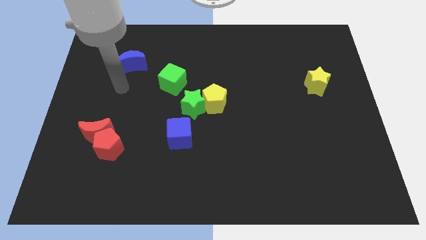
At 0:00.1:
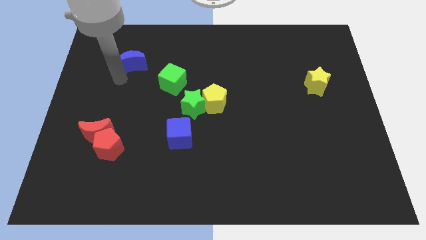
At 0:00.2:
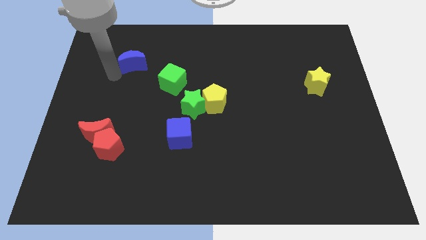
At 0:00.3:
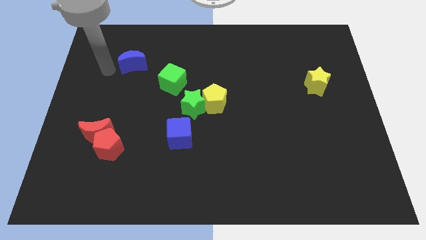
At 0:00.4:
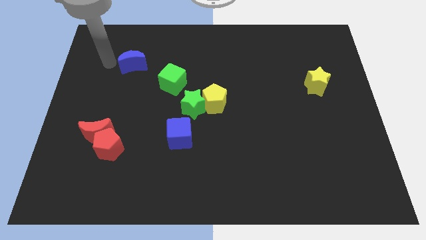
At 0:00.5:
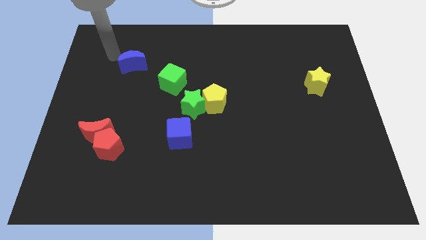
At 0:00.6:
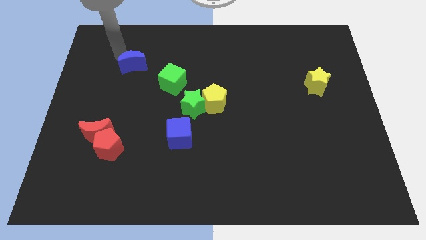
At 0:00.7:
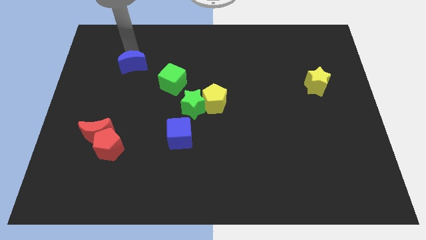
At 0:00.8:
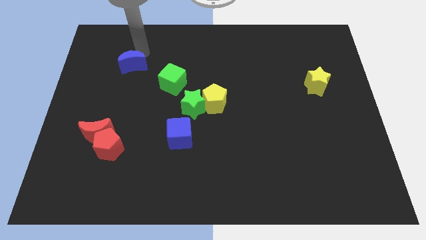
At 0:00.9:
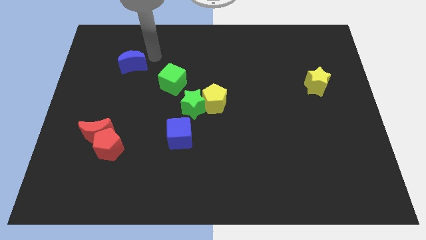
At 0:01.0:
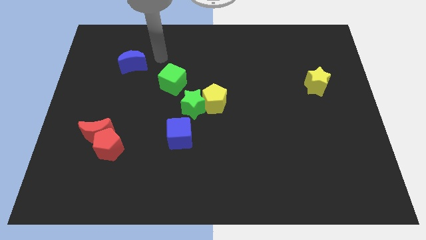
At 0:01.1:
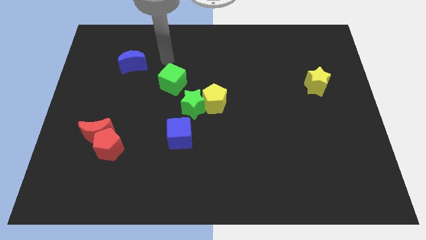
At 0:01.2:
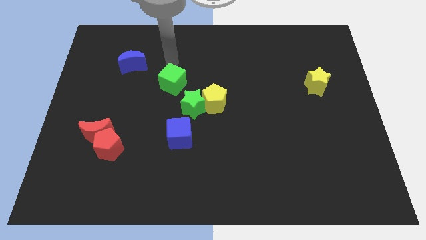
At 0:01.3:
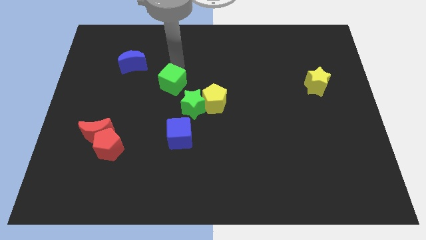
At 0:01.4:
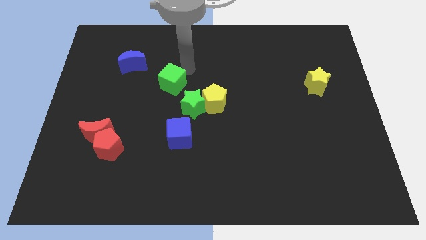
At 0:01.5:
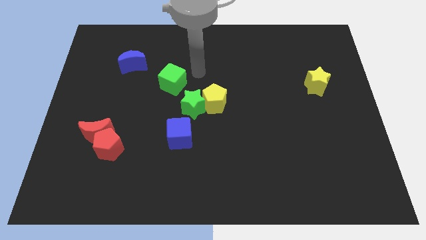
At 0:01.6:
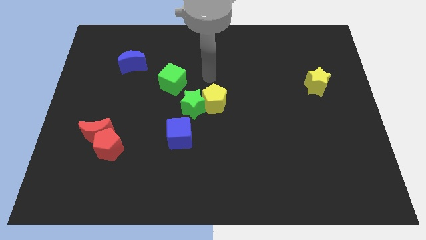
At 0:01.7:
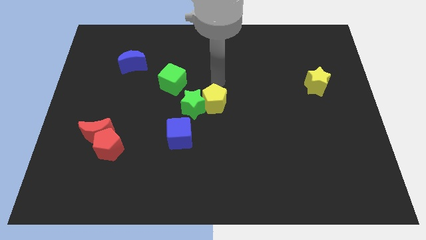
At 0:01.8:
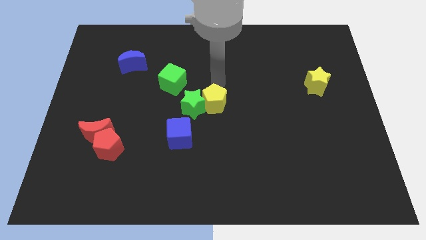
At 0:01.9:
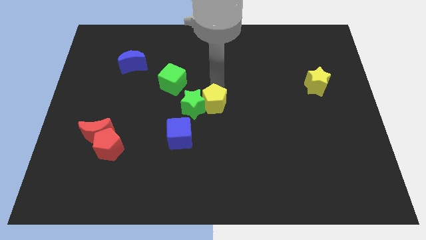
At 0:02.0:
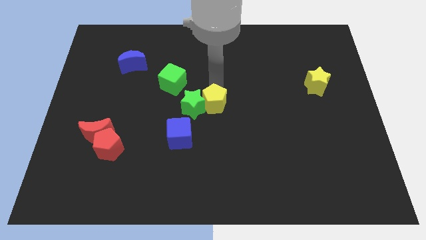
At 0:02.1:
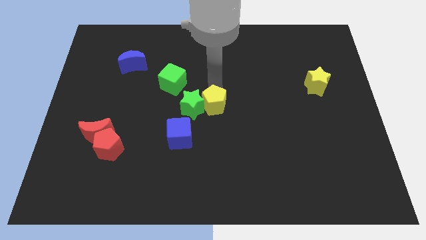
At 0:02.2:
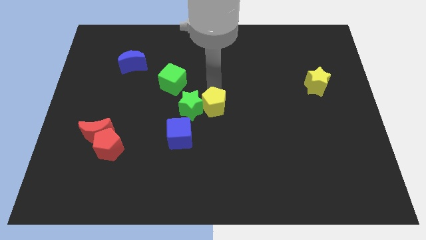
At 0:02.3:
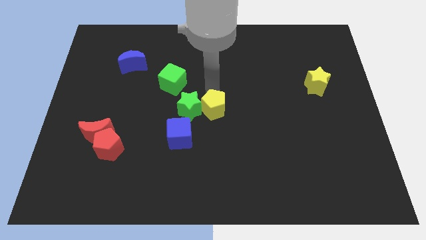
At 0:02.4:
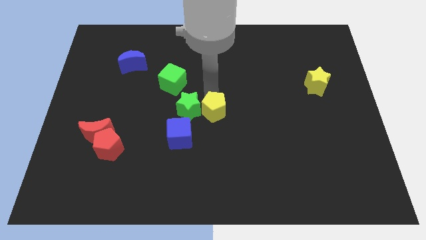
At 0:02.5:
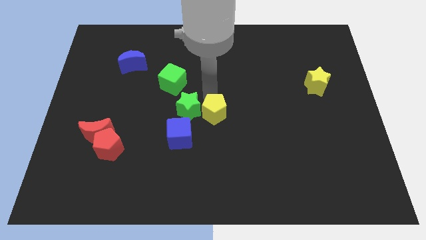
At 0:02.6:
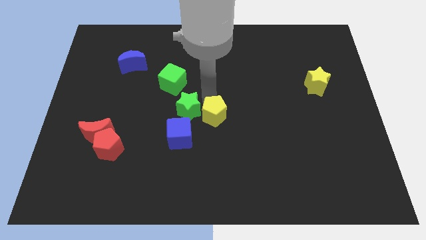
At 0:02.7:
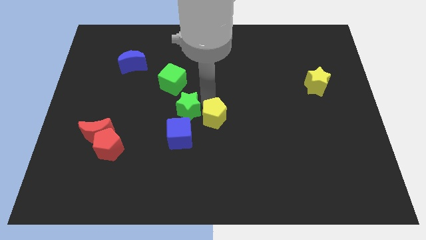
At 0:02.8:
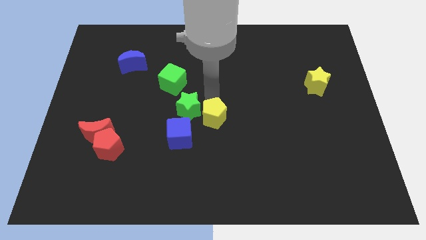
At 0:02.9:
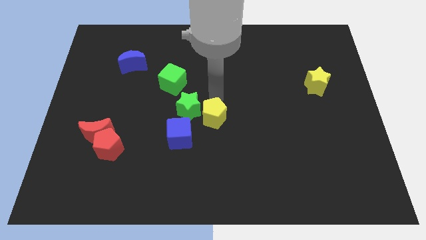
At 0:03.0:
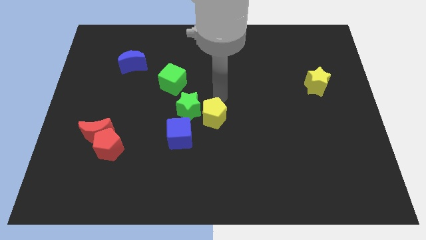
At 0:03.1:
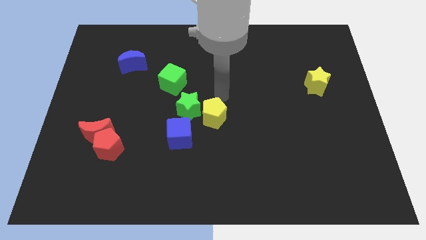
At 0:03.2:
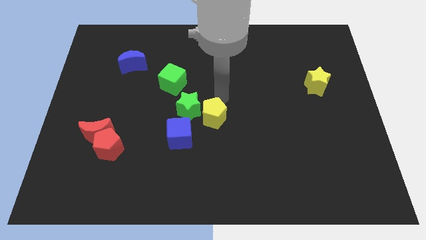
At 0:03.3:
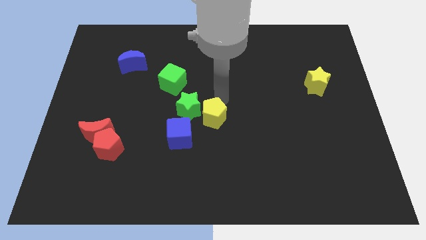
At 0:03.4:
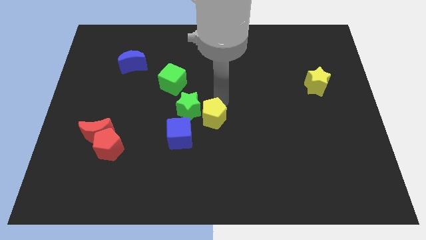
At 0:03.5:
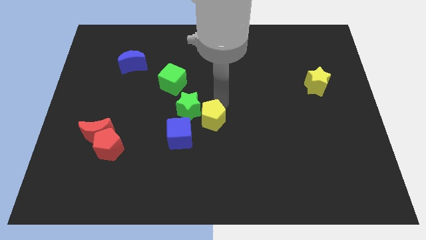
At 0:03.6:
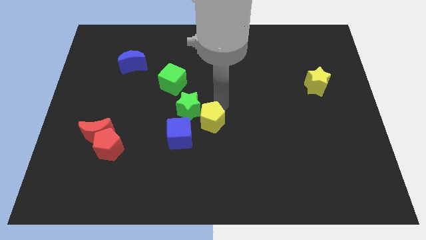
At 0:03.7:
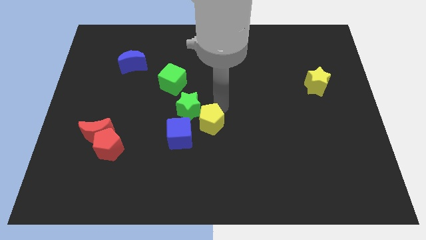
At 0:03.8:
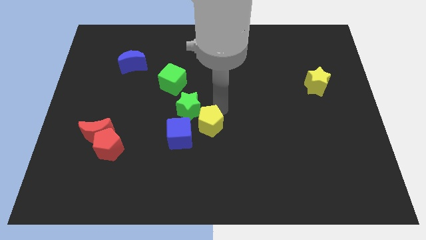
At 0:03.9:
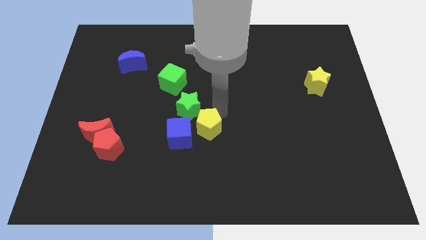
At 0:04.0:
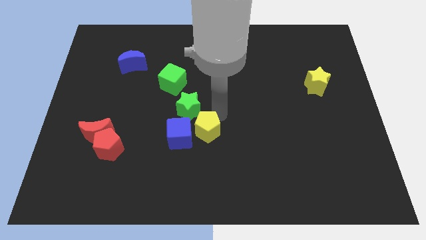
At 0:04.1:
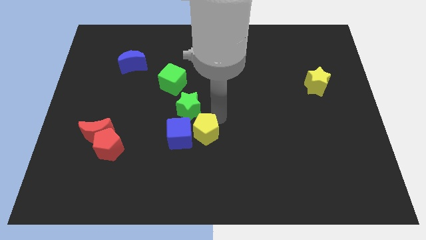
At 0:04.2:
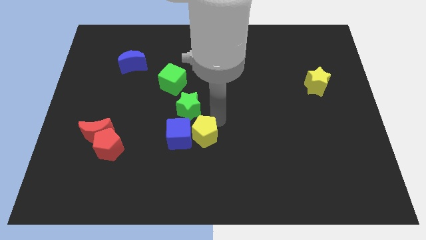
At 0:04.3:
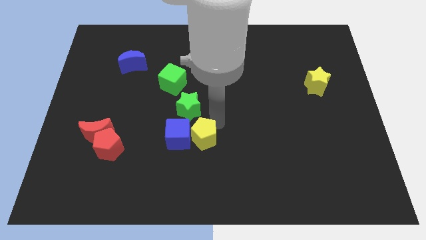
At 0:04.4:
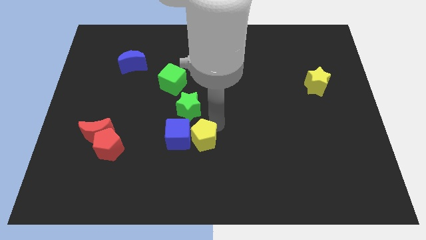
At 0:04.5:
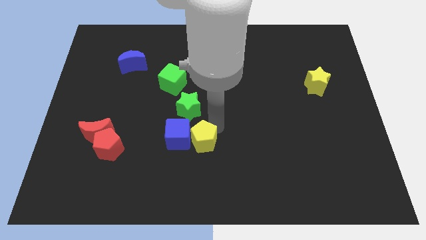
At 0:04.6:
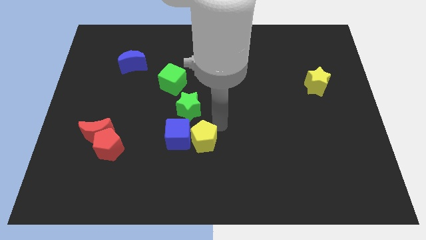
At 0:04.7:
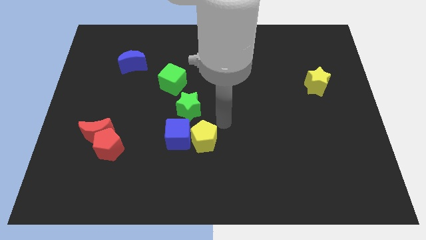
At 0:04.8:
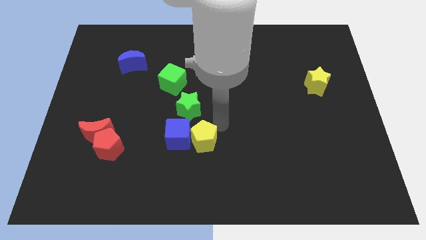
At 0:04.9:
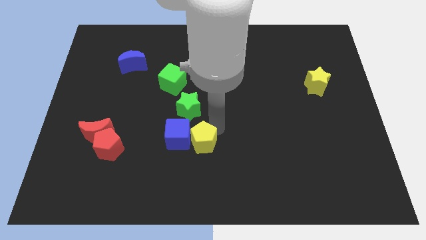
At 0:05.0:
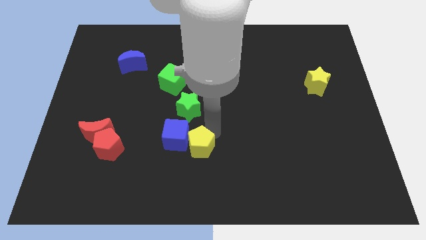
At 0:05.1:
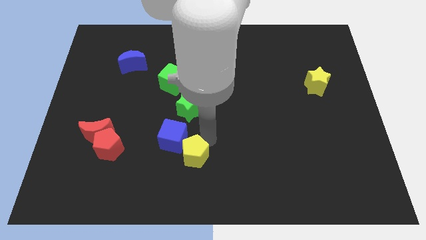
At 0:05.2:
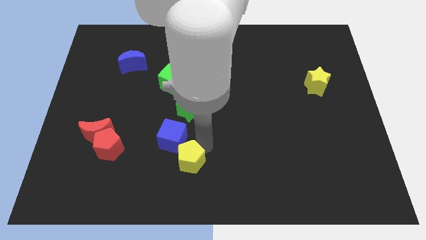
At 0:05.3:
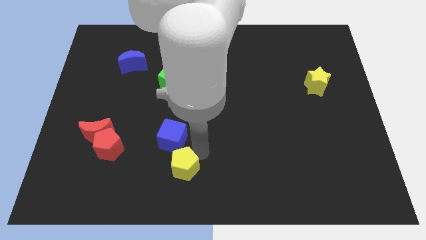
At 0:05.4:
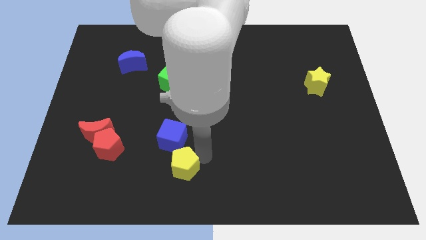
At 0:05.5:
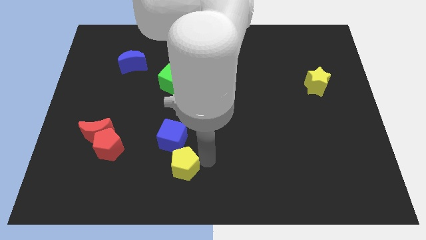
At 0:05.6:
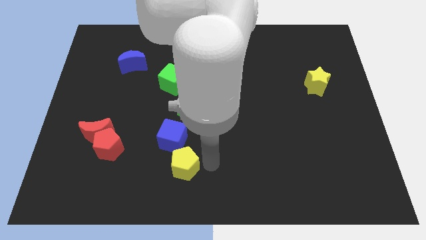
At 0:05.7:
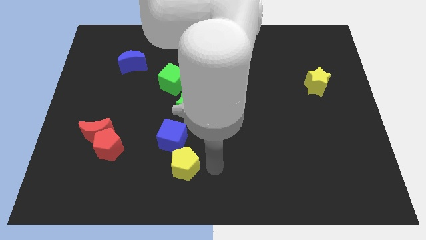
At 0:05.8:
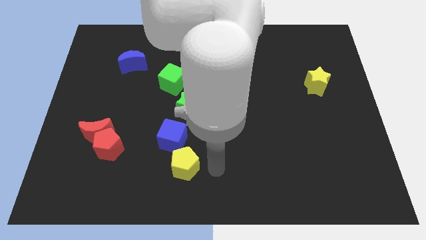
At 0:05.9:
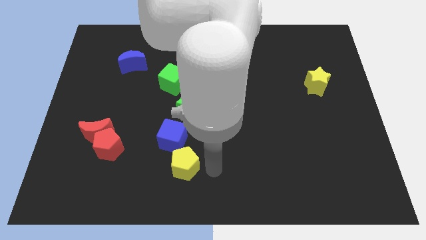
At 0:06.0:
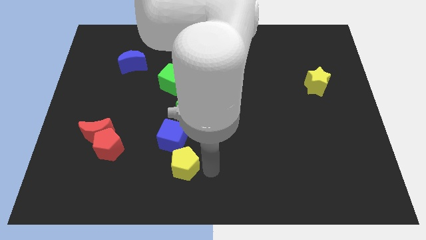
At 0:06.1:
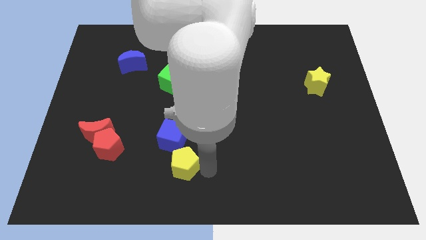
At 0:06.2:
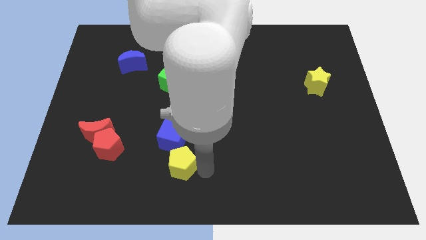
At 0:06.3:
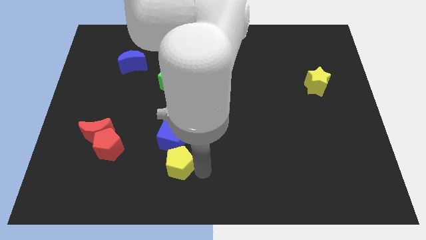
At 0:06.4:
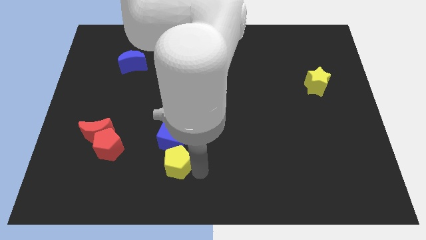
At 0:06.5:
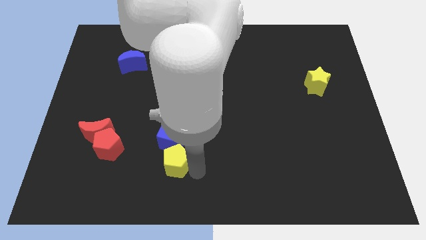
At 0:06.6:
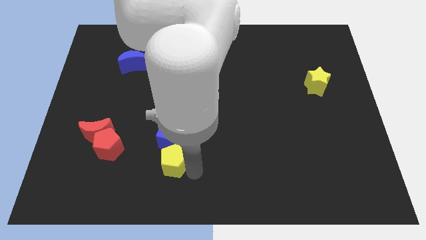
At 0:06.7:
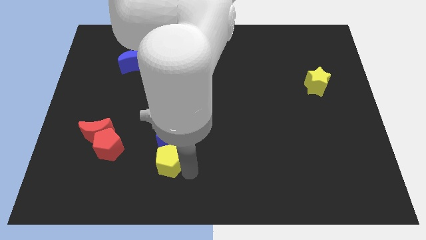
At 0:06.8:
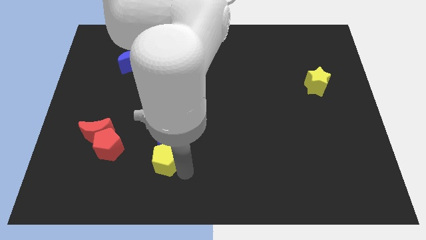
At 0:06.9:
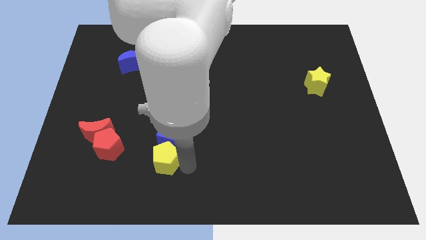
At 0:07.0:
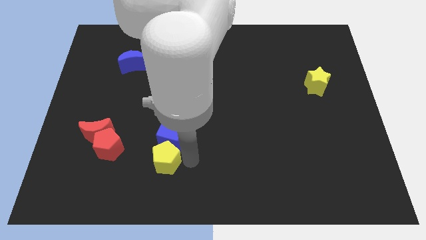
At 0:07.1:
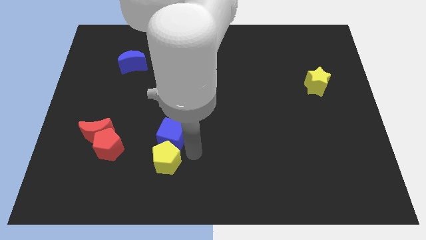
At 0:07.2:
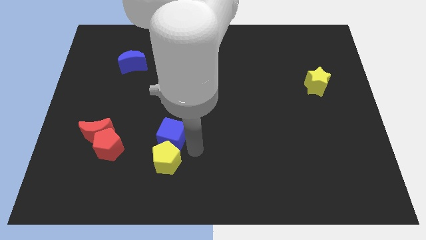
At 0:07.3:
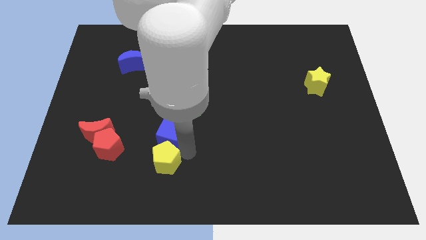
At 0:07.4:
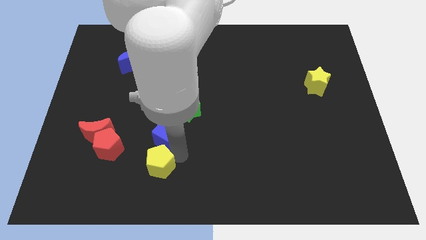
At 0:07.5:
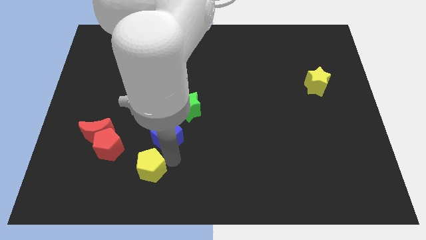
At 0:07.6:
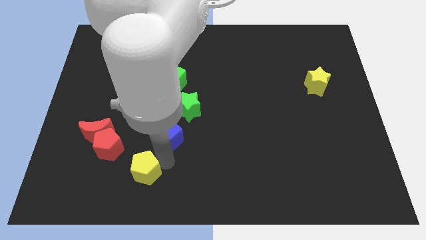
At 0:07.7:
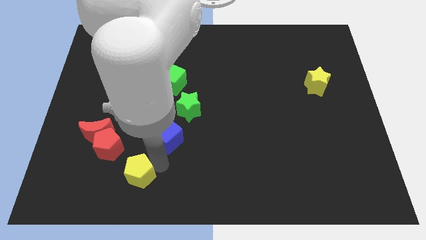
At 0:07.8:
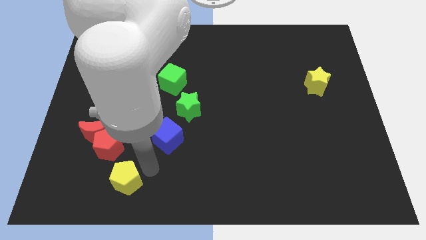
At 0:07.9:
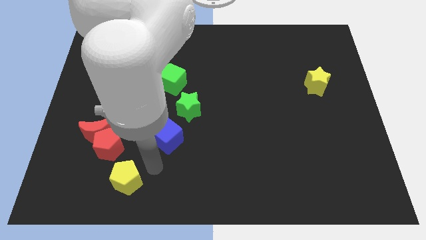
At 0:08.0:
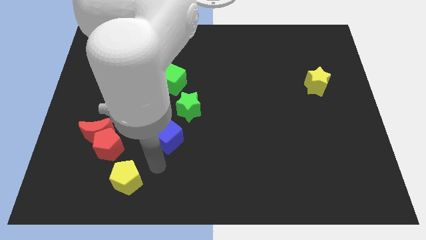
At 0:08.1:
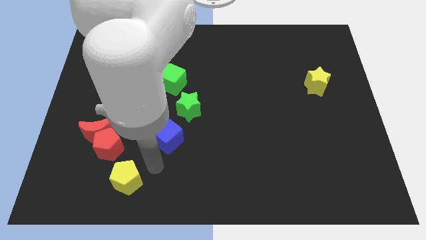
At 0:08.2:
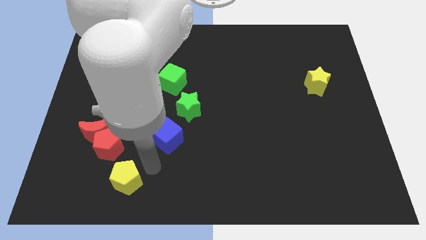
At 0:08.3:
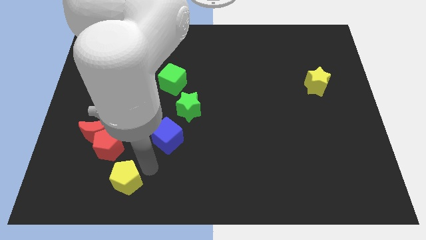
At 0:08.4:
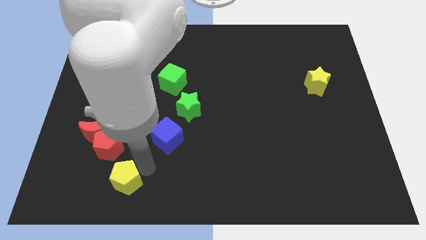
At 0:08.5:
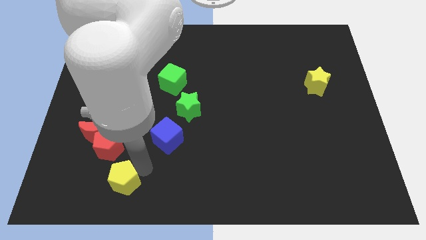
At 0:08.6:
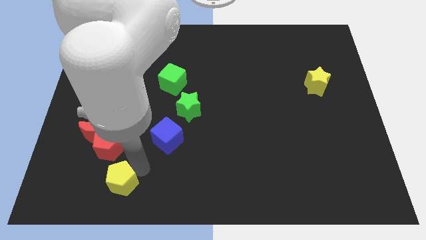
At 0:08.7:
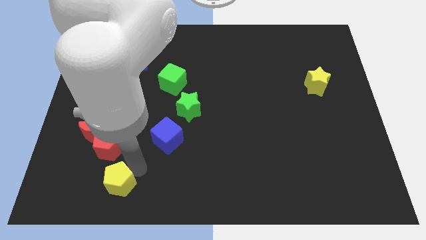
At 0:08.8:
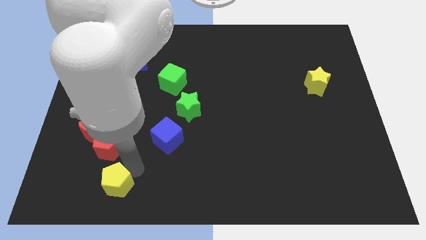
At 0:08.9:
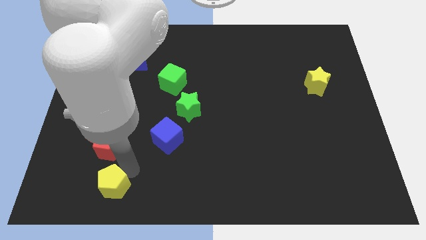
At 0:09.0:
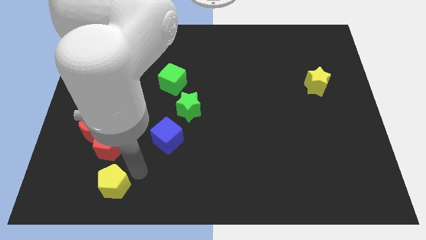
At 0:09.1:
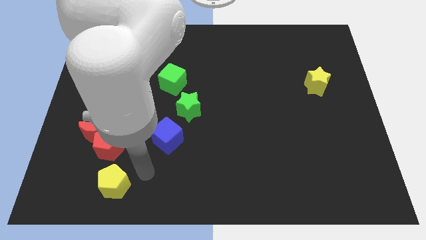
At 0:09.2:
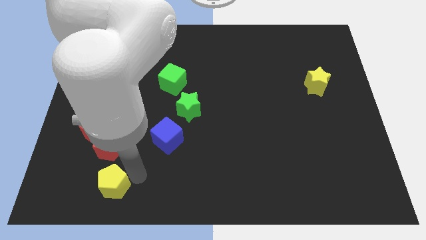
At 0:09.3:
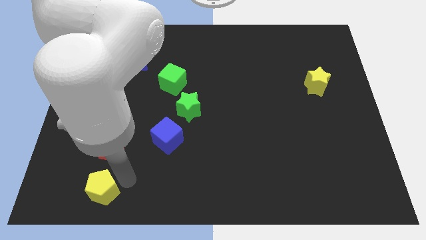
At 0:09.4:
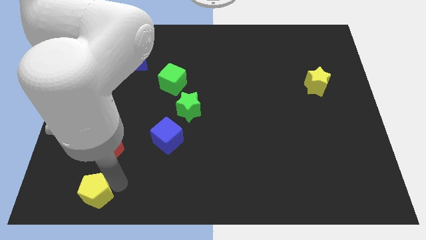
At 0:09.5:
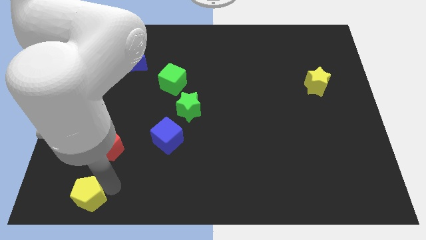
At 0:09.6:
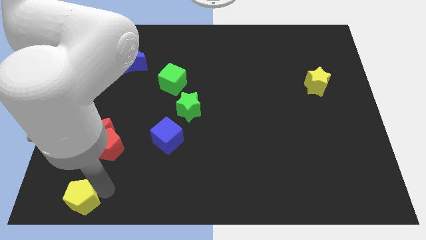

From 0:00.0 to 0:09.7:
move the yellow pentagon to the bottom left corner
